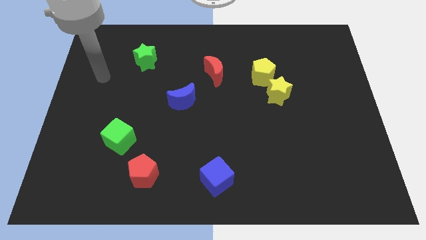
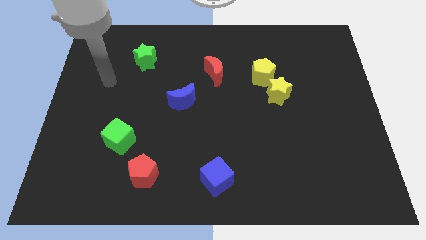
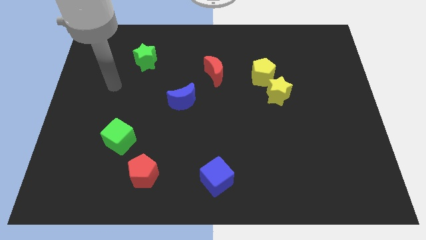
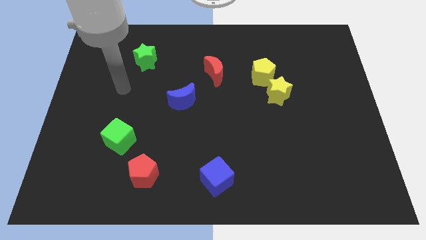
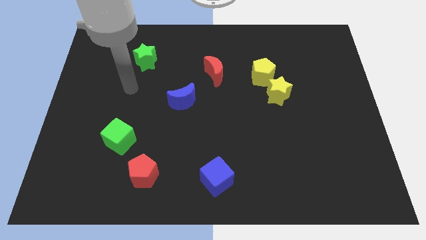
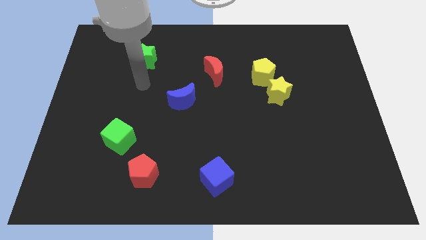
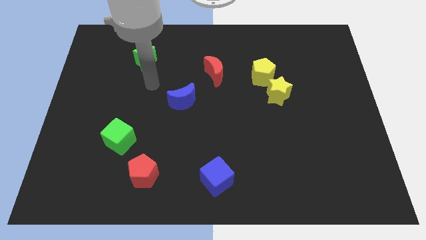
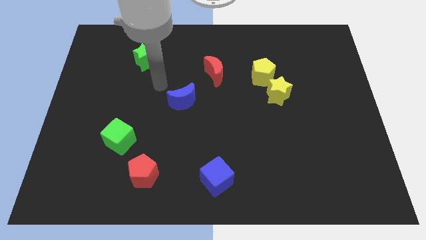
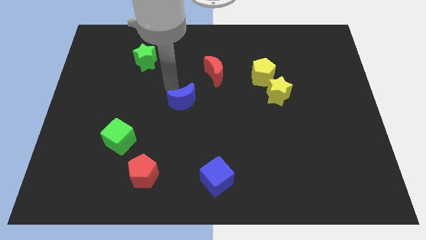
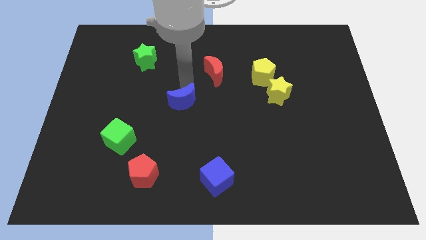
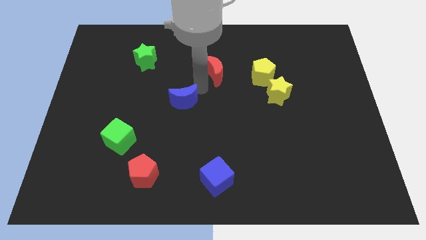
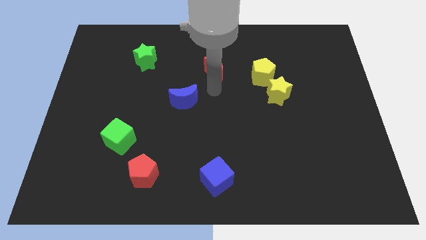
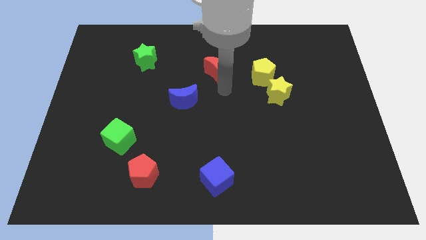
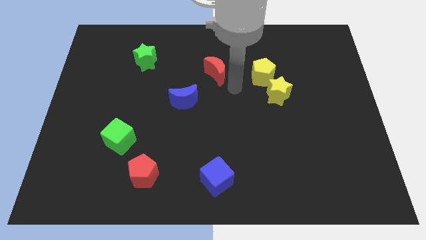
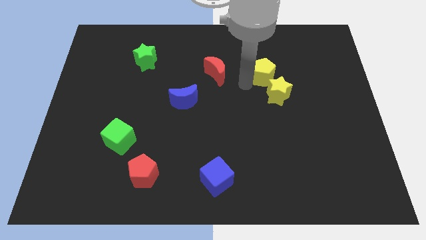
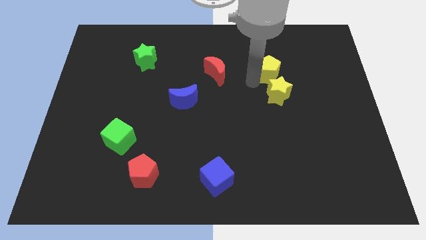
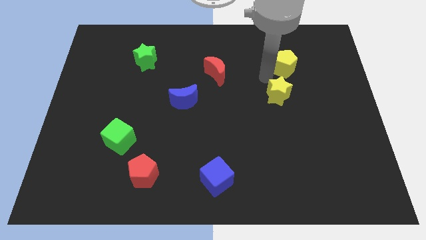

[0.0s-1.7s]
separate the yellow star from the yellow pentagon

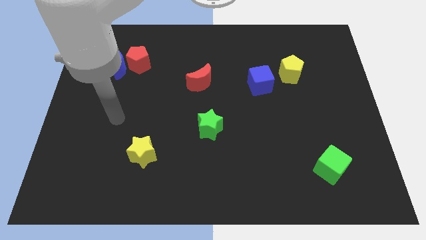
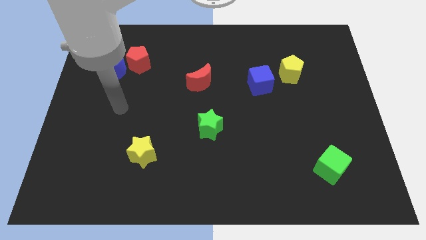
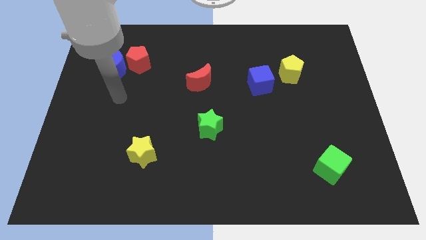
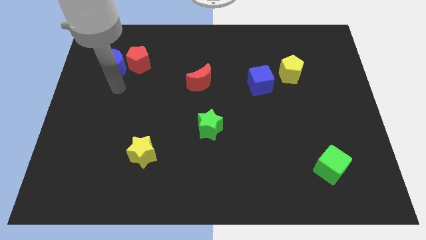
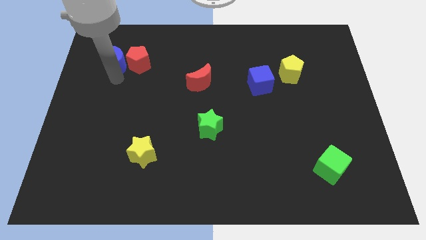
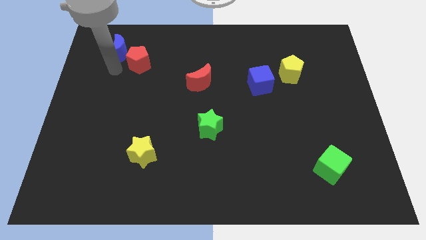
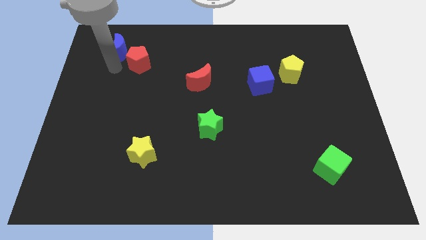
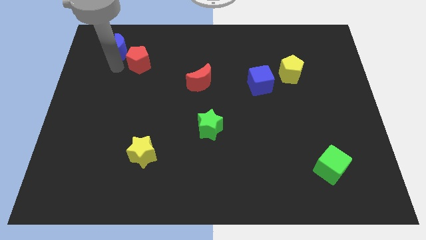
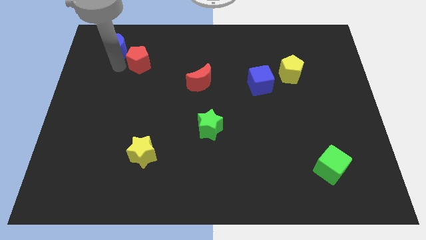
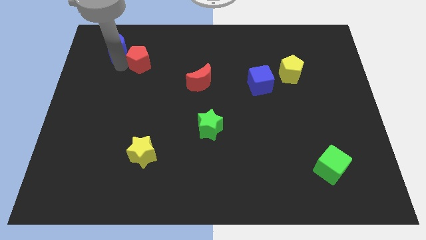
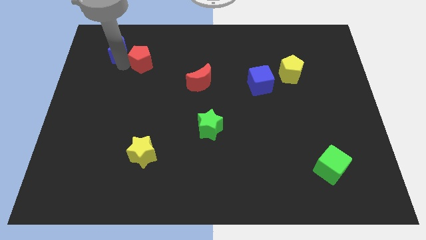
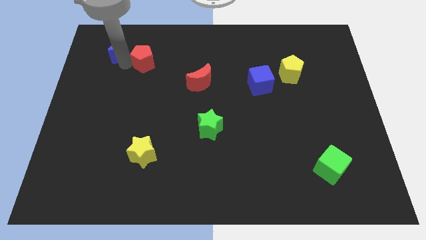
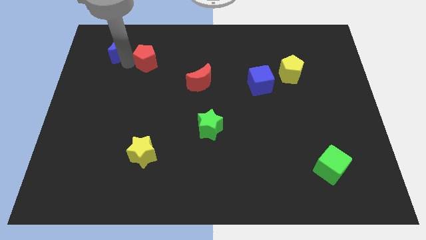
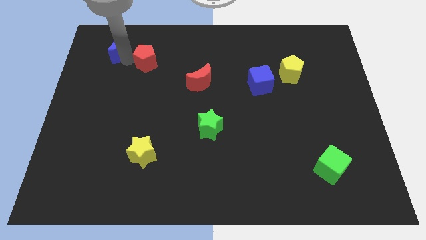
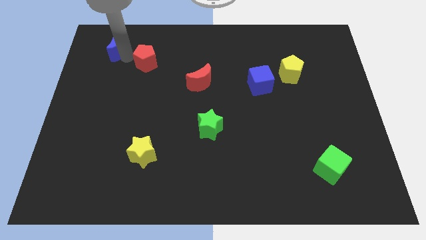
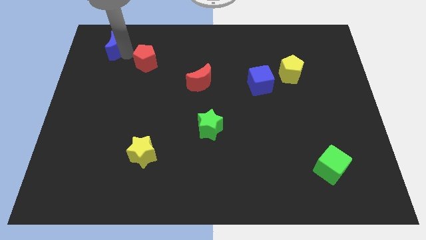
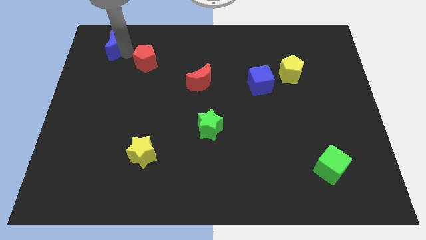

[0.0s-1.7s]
separate the red pentagon from the blue moon

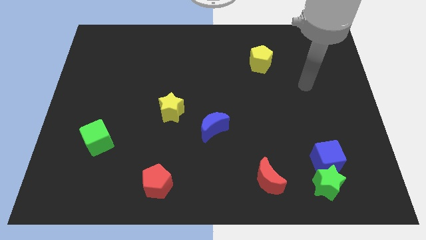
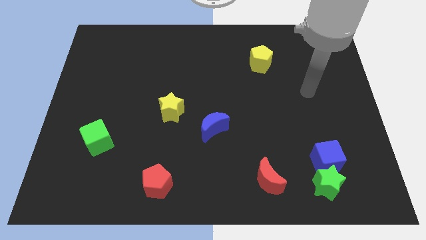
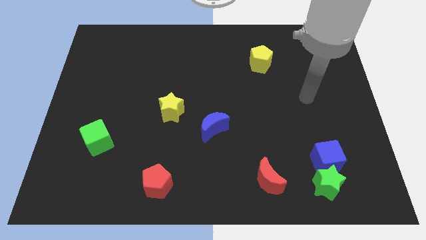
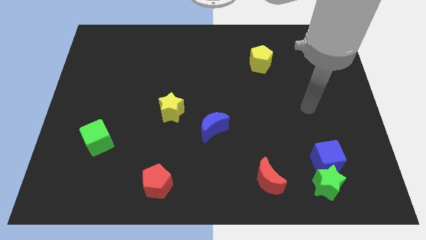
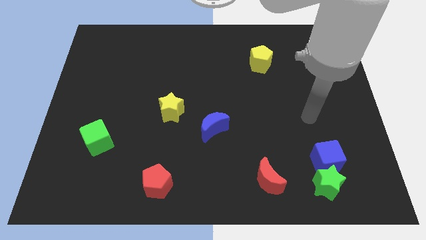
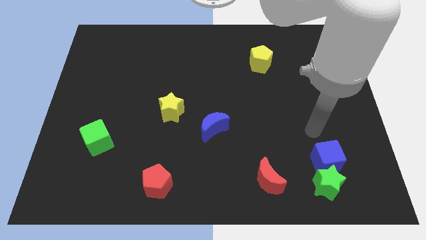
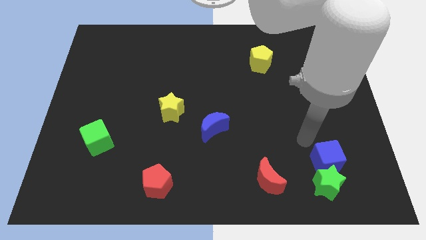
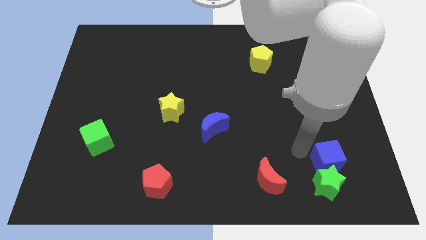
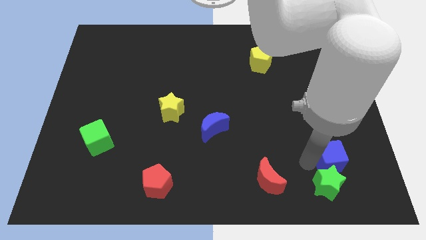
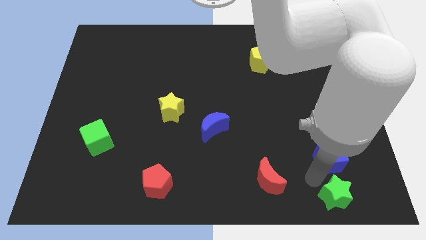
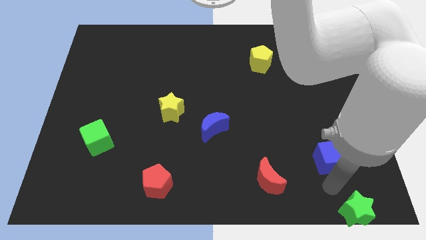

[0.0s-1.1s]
pull the blue cube apart from the green star

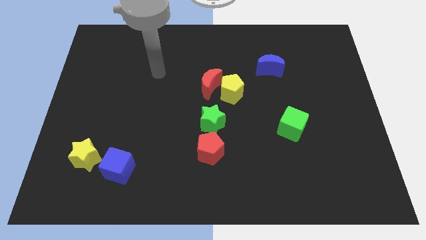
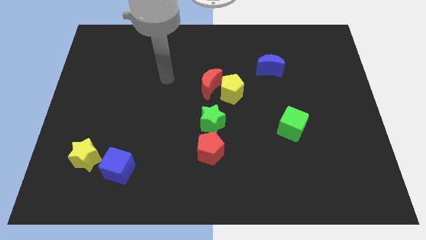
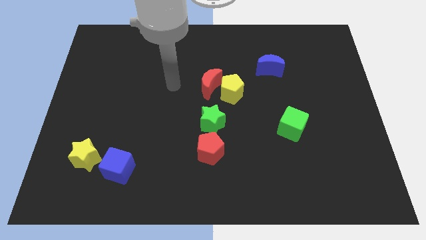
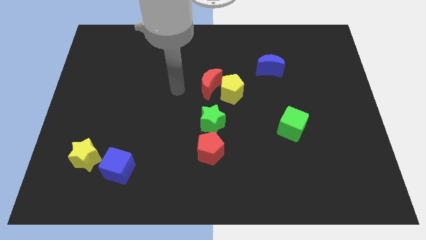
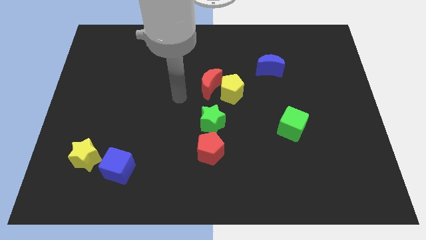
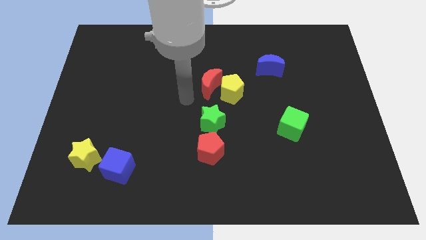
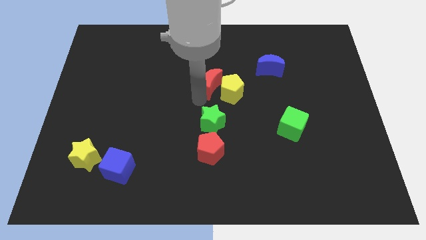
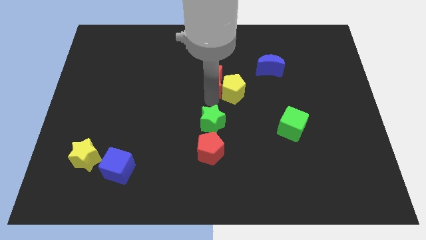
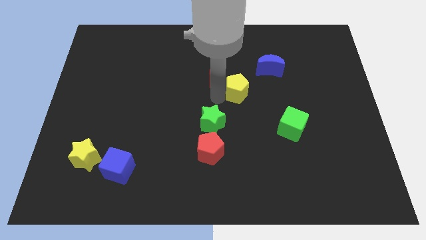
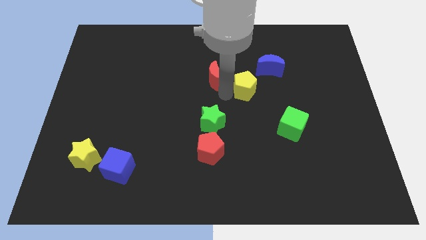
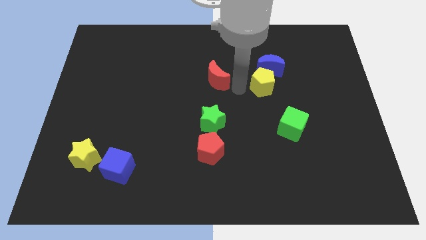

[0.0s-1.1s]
separate the red moon from the yellow pentagon

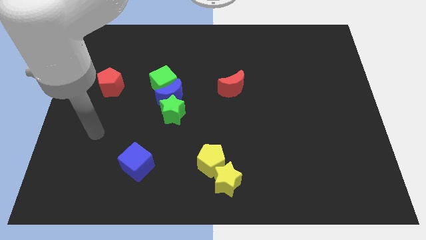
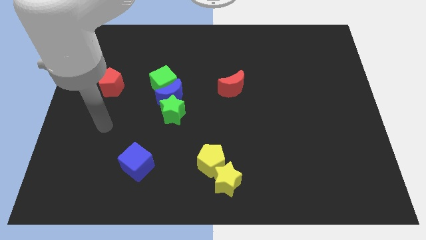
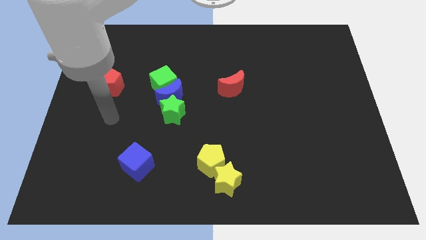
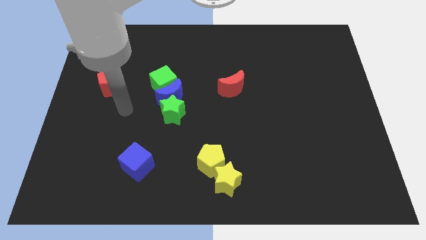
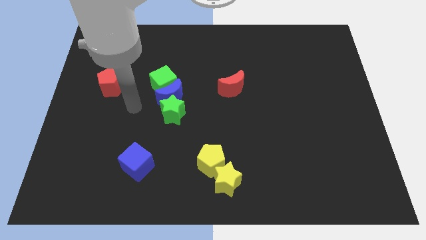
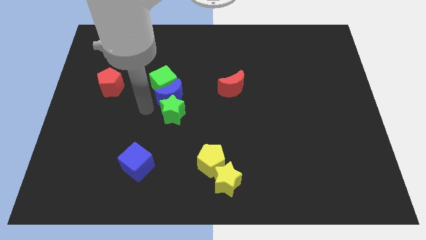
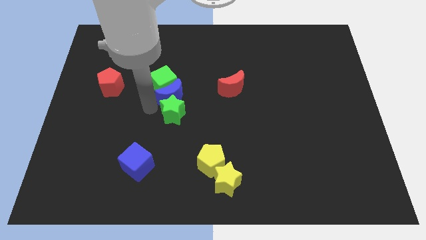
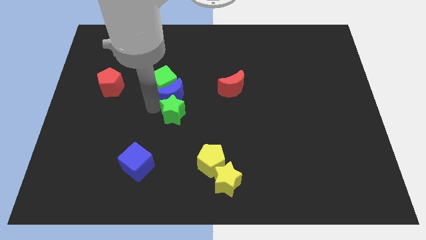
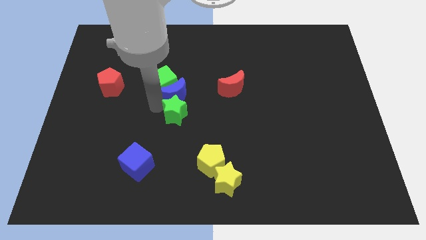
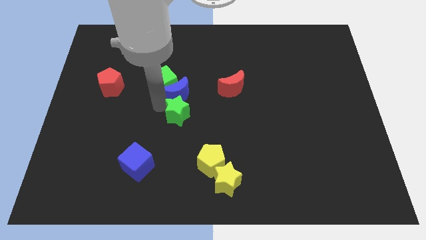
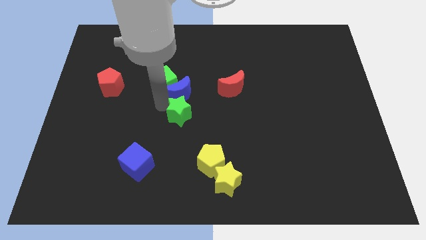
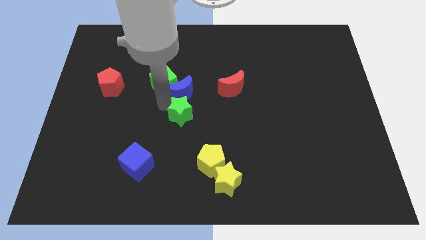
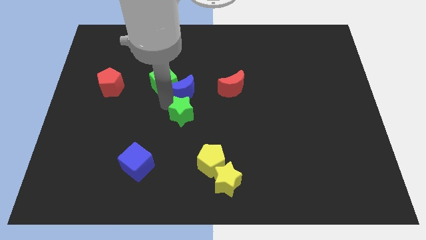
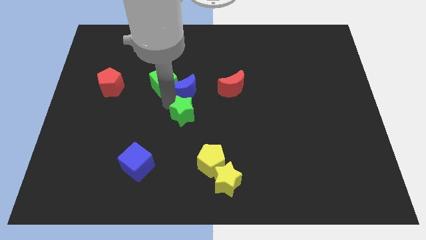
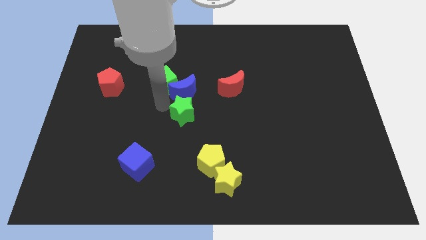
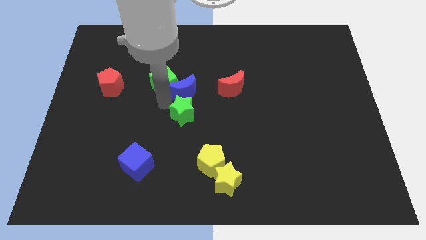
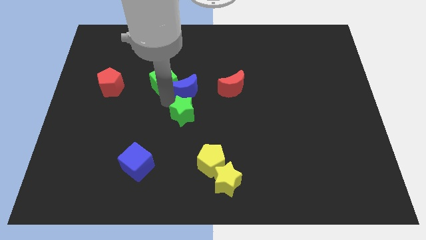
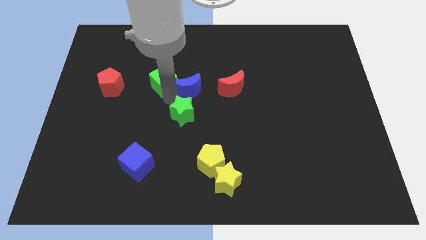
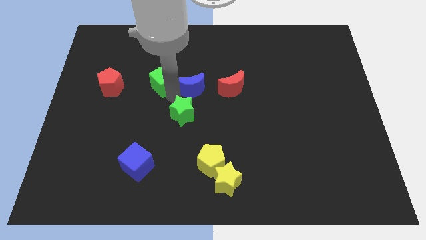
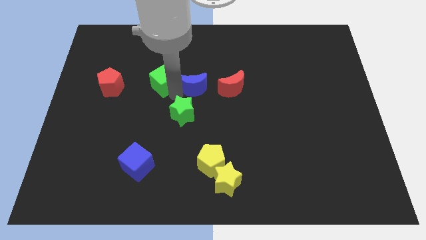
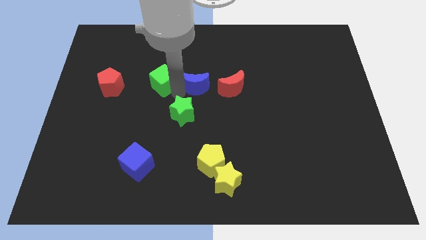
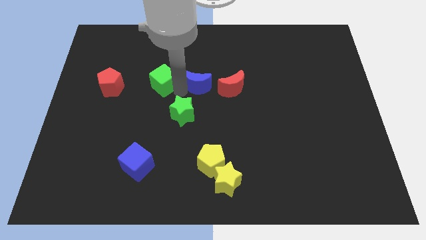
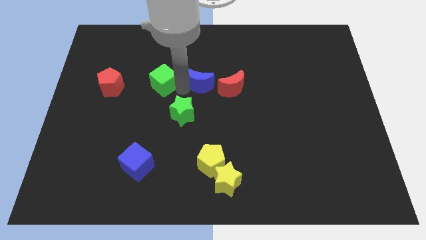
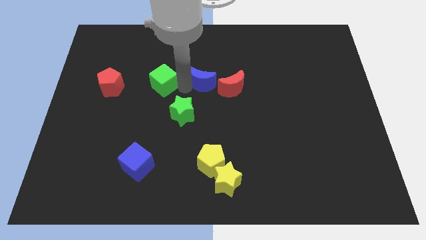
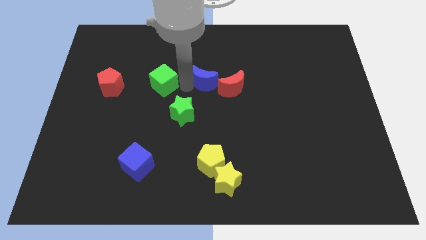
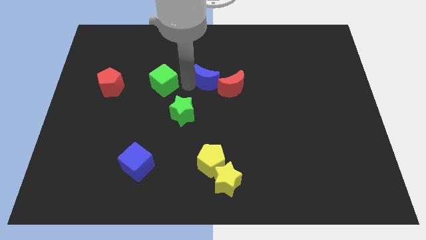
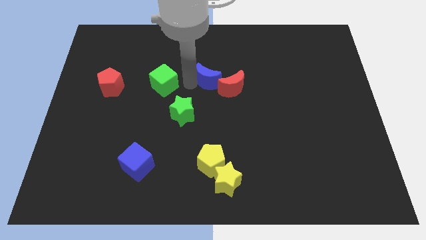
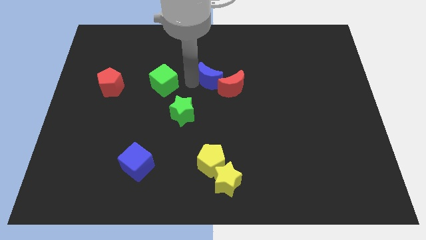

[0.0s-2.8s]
move the blue moon away from the green cube and green star

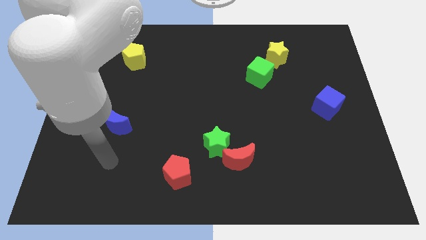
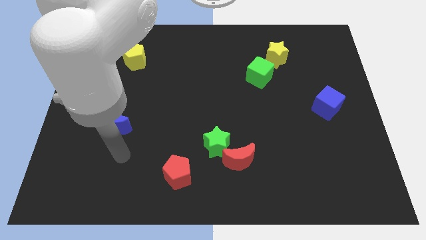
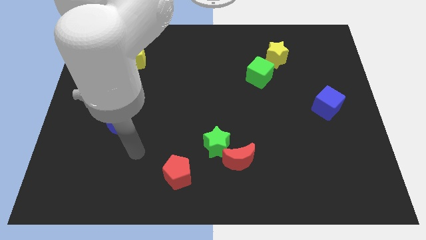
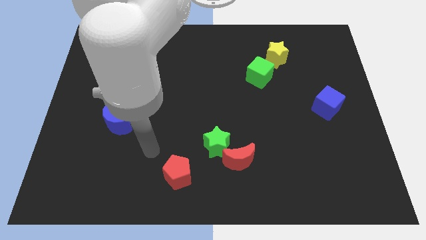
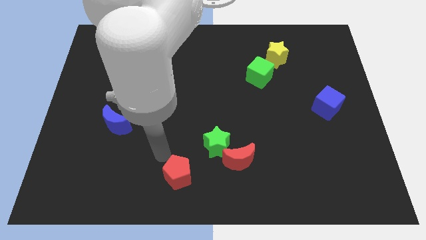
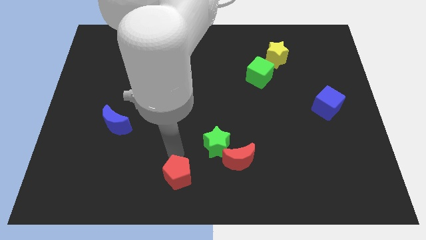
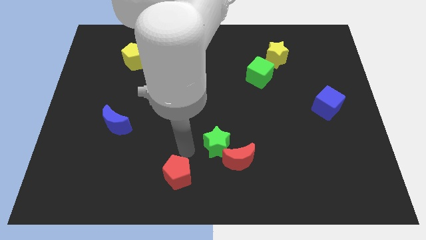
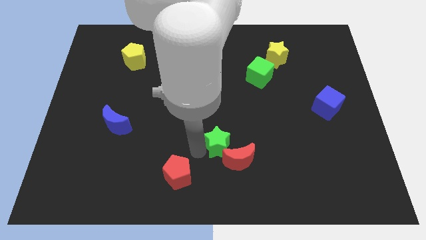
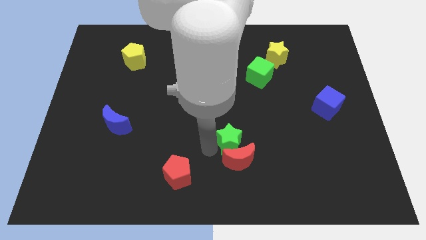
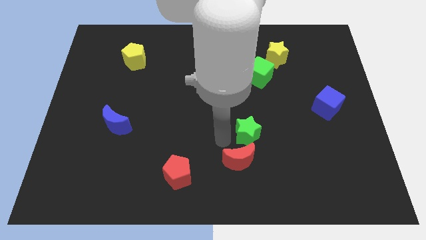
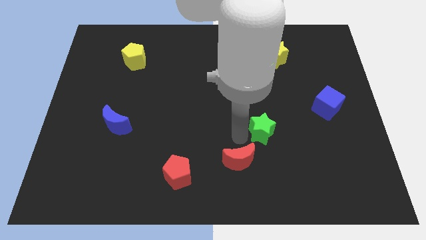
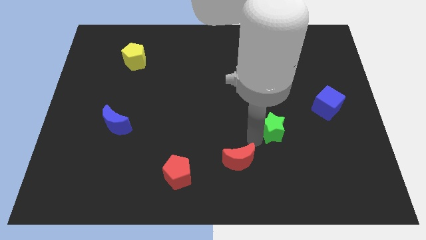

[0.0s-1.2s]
separate the red moon from the green star
